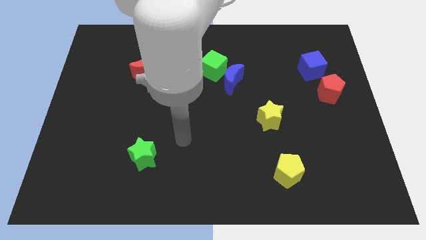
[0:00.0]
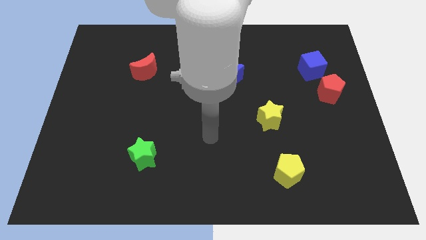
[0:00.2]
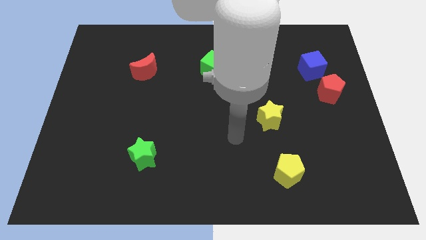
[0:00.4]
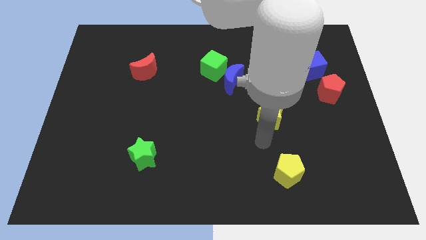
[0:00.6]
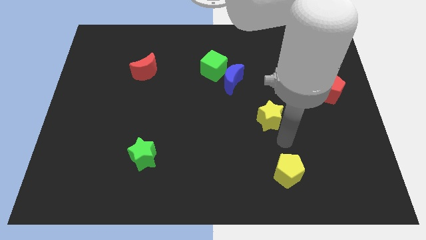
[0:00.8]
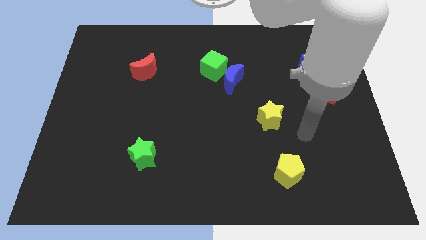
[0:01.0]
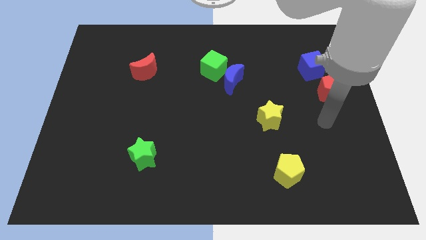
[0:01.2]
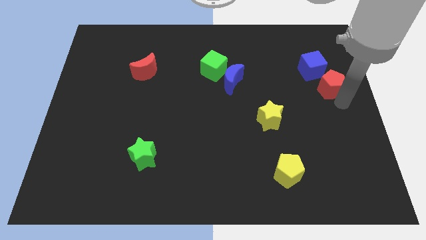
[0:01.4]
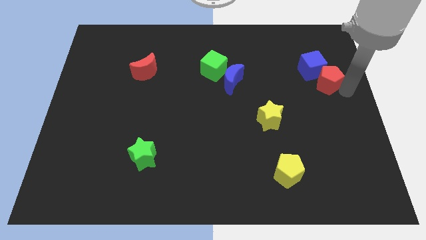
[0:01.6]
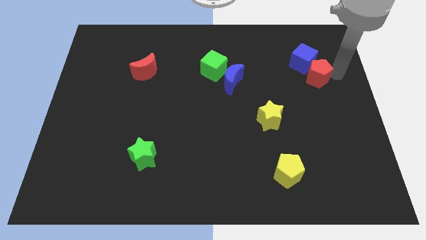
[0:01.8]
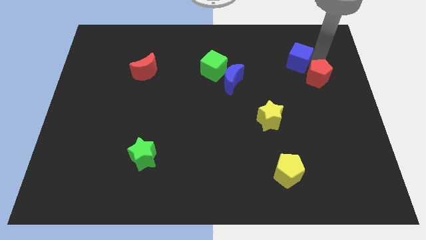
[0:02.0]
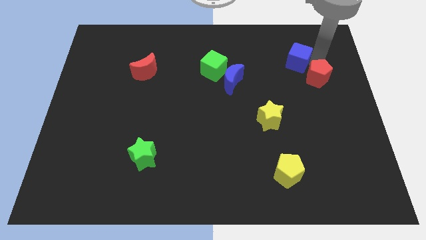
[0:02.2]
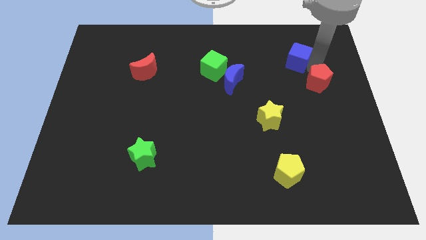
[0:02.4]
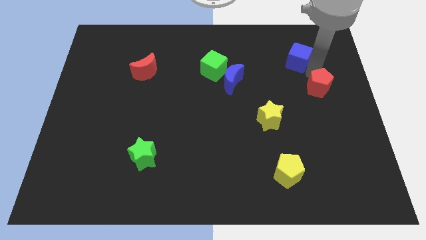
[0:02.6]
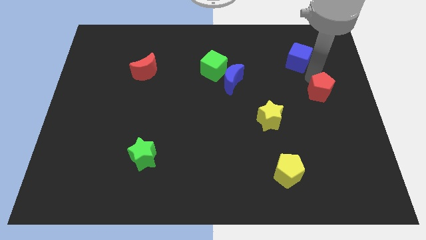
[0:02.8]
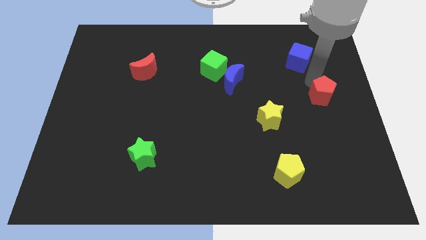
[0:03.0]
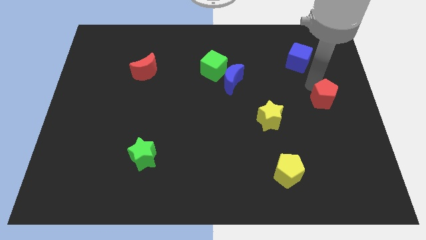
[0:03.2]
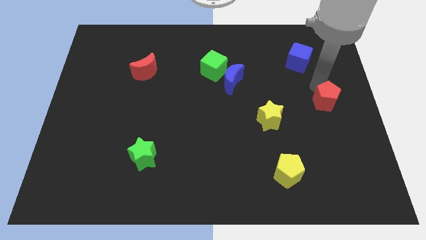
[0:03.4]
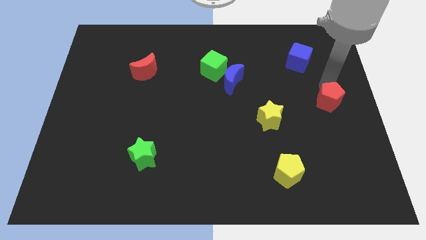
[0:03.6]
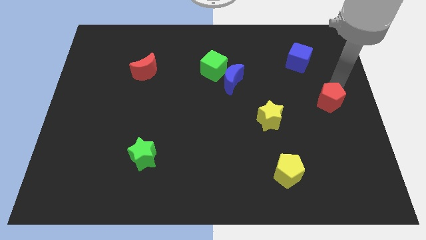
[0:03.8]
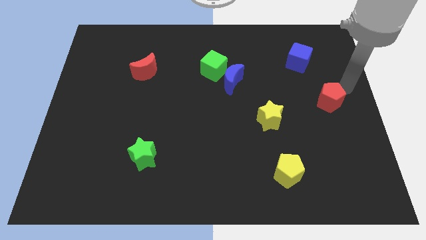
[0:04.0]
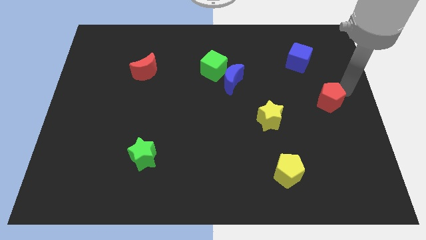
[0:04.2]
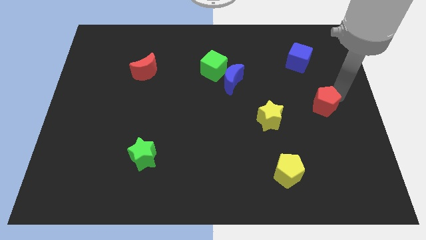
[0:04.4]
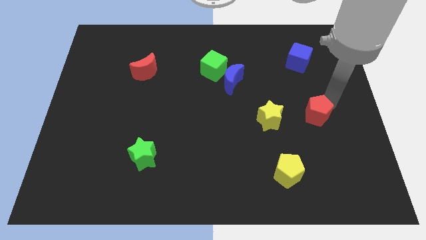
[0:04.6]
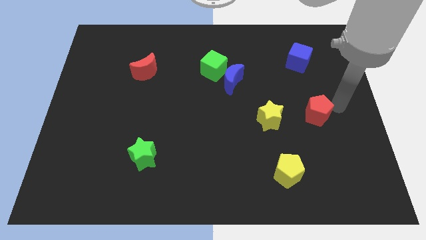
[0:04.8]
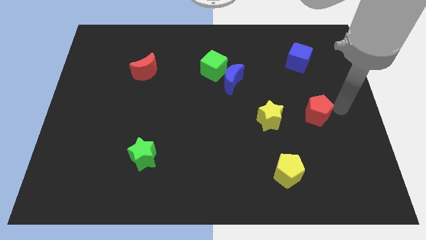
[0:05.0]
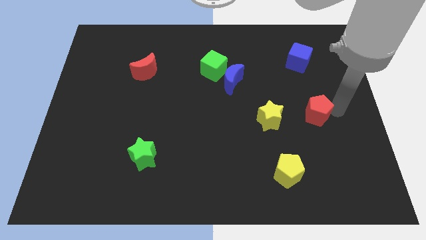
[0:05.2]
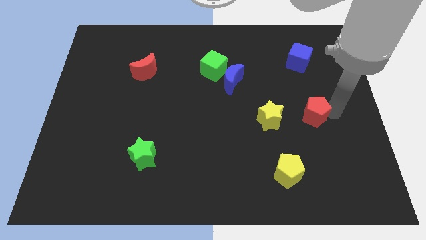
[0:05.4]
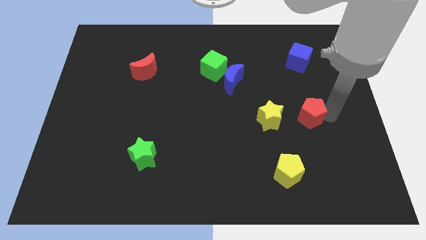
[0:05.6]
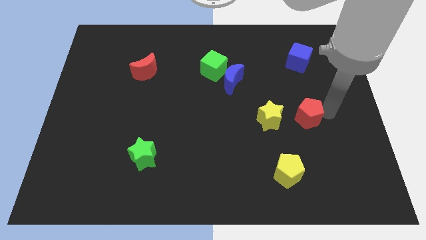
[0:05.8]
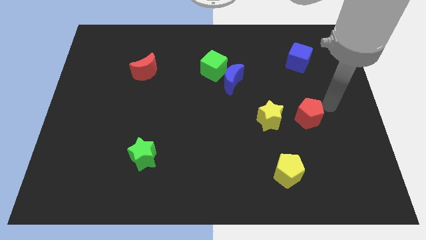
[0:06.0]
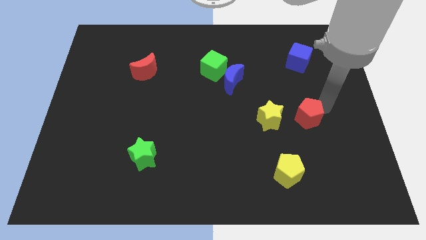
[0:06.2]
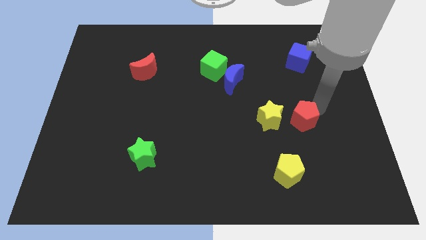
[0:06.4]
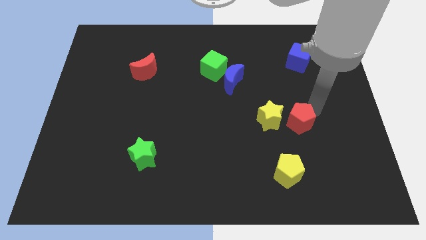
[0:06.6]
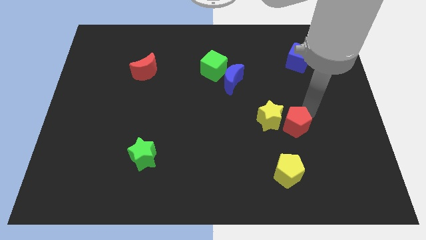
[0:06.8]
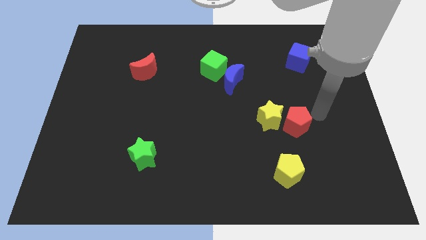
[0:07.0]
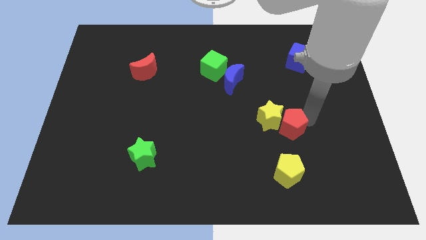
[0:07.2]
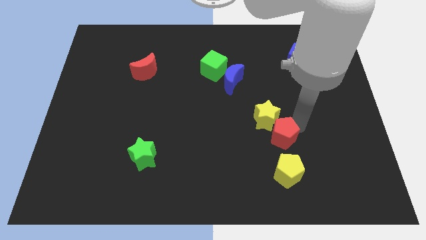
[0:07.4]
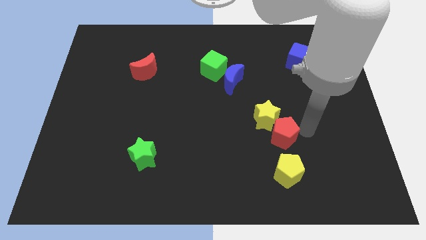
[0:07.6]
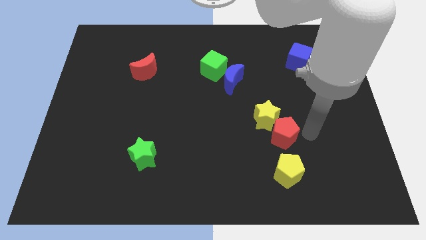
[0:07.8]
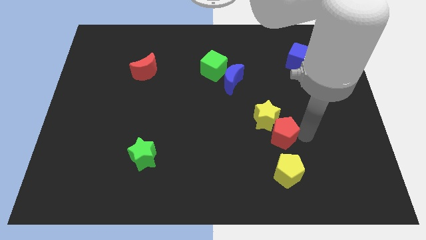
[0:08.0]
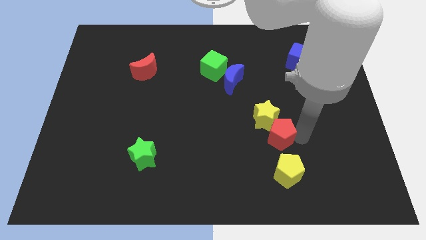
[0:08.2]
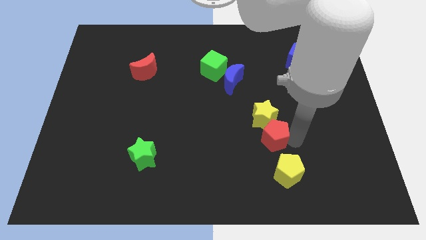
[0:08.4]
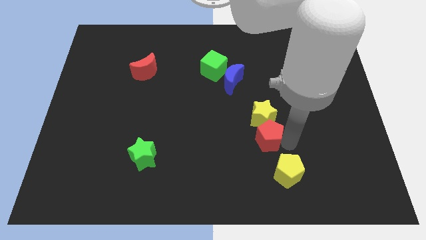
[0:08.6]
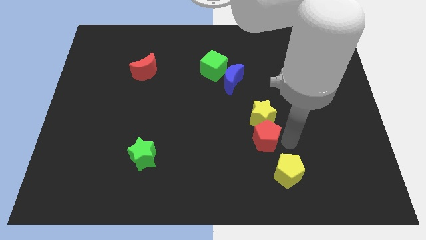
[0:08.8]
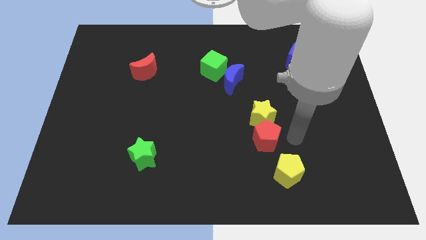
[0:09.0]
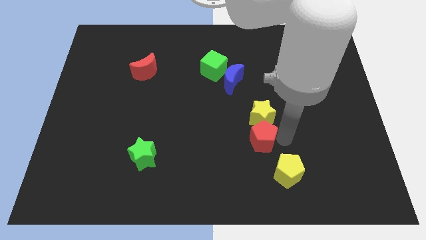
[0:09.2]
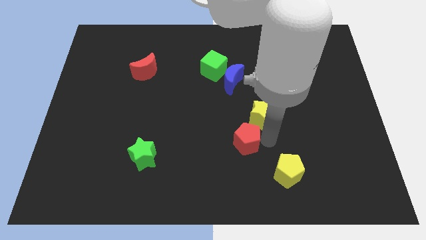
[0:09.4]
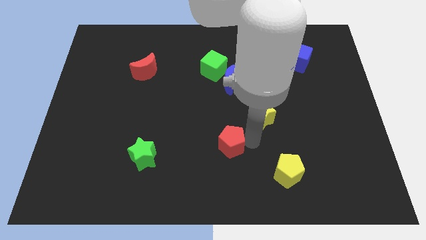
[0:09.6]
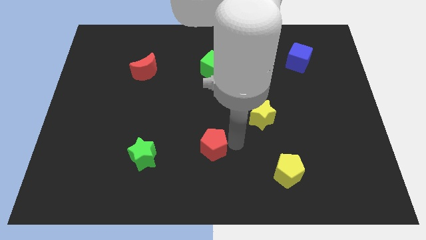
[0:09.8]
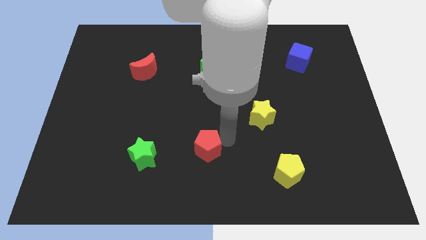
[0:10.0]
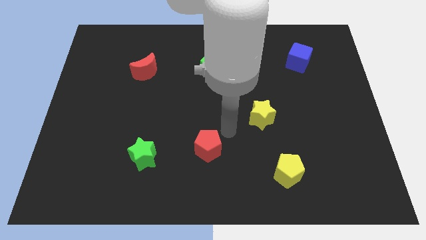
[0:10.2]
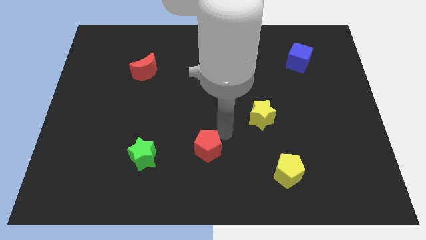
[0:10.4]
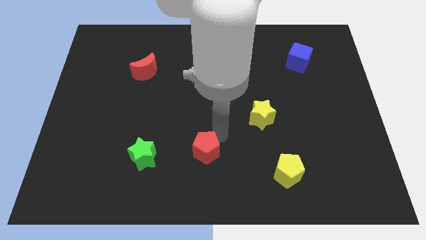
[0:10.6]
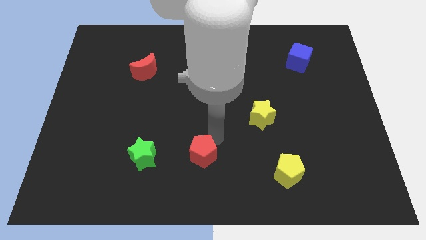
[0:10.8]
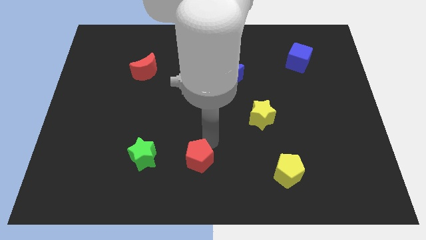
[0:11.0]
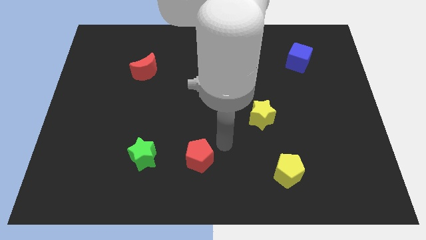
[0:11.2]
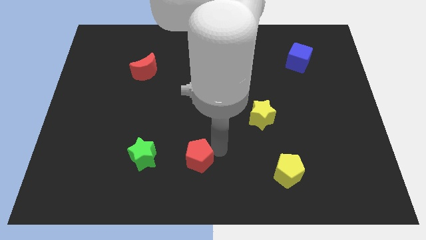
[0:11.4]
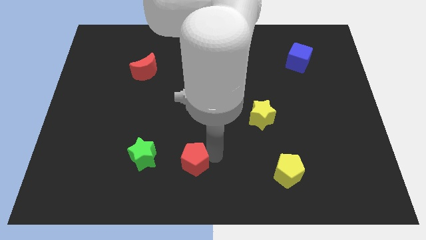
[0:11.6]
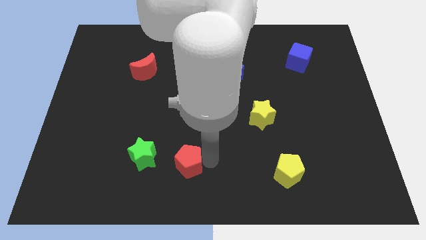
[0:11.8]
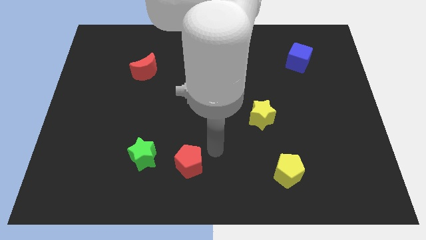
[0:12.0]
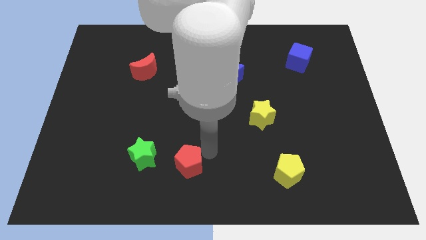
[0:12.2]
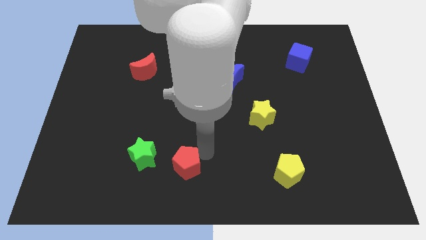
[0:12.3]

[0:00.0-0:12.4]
push the red pentagon to the bottom right of the green star

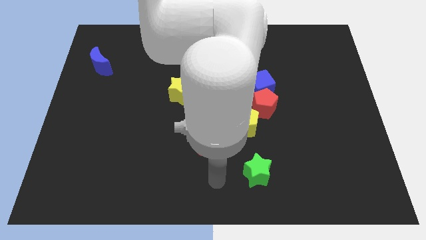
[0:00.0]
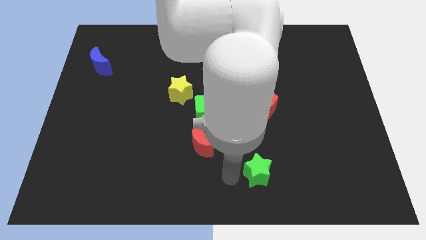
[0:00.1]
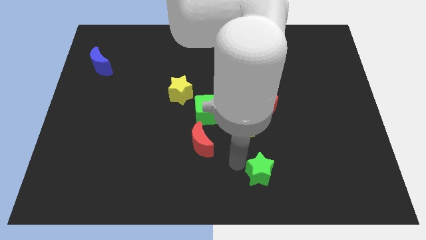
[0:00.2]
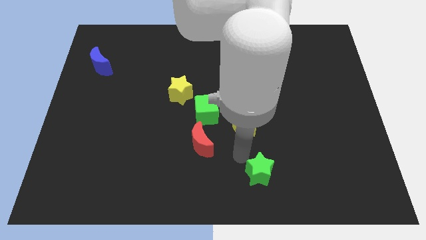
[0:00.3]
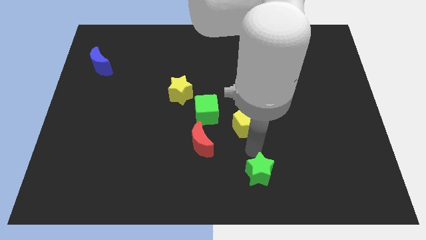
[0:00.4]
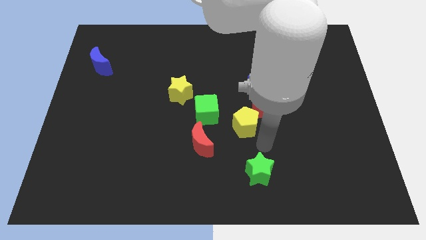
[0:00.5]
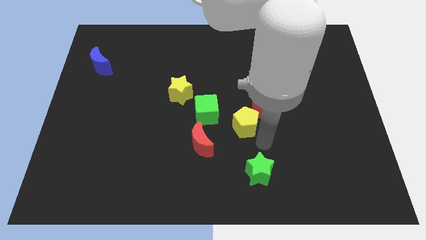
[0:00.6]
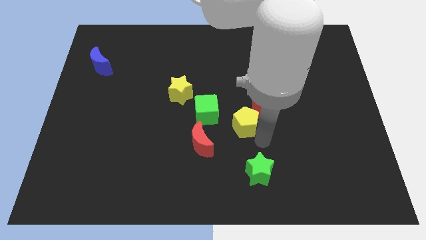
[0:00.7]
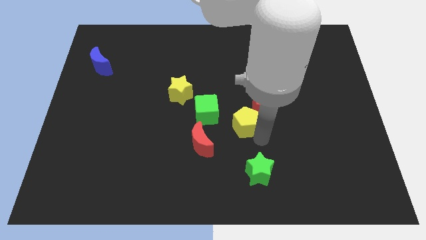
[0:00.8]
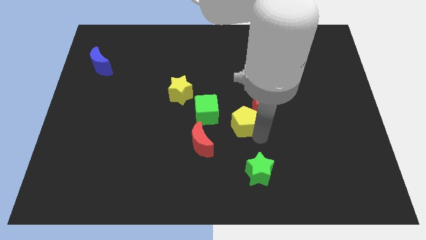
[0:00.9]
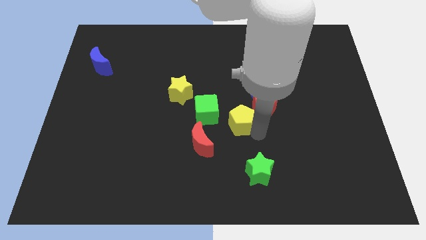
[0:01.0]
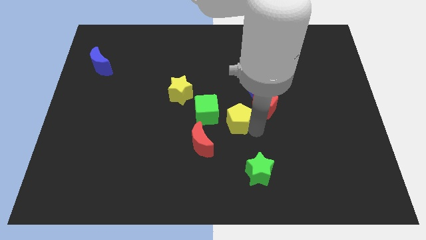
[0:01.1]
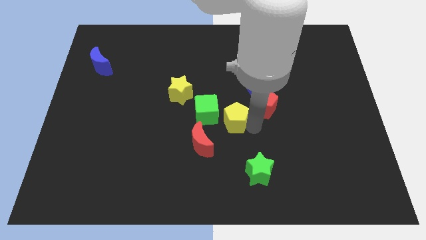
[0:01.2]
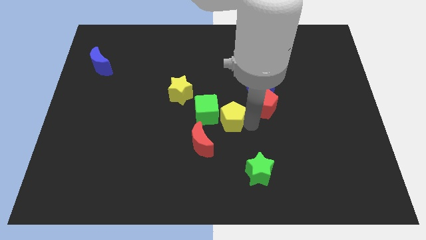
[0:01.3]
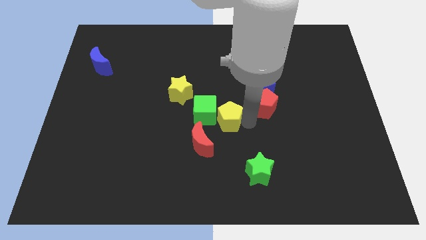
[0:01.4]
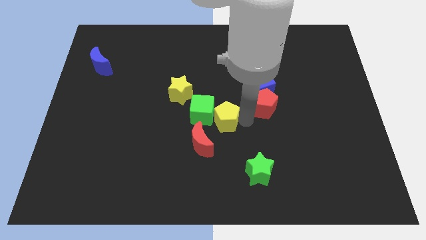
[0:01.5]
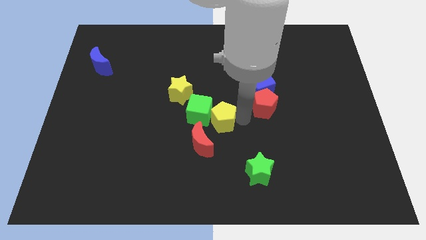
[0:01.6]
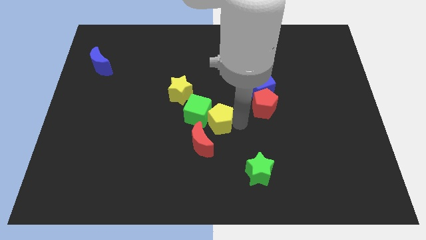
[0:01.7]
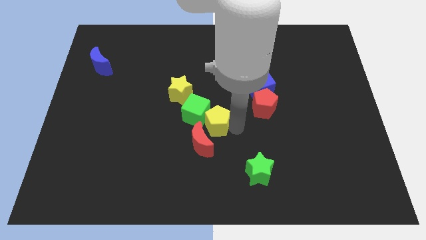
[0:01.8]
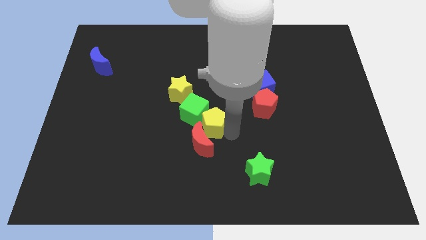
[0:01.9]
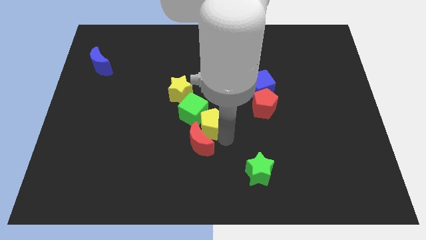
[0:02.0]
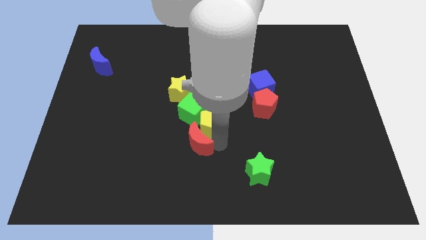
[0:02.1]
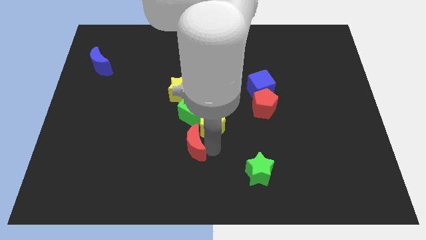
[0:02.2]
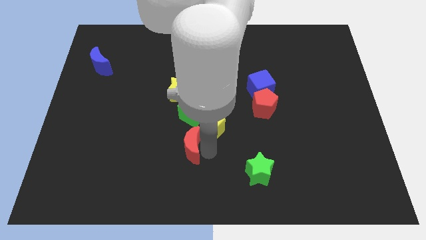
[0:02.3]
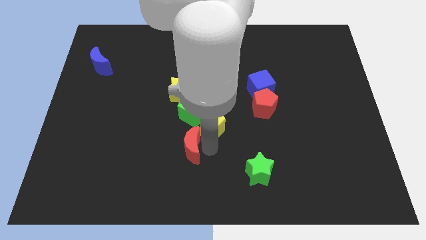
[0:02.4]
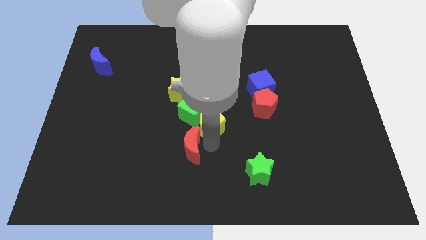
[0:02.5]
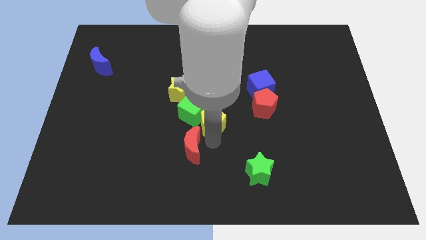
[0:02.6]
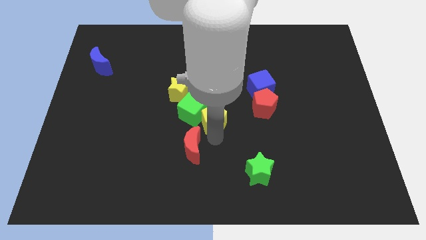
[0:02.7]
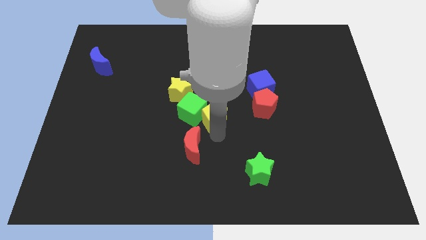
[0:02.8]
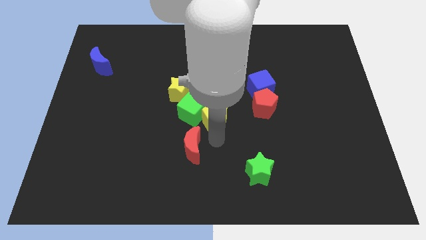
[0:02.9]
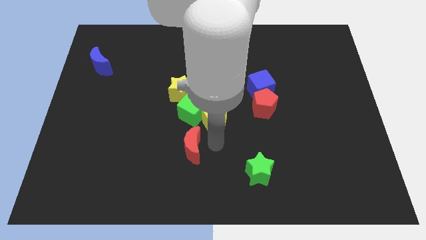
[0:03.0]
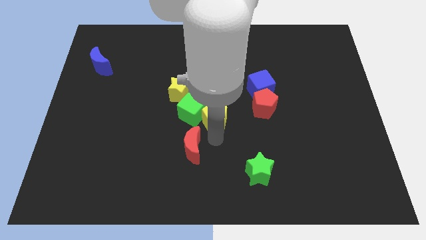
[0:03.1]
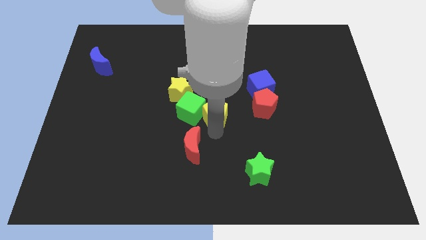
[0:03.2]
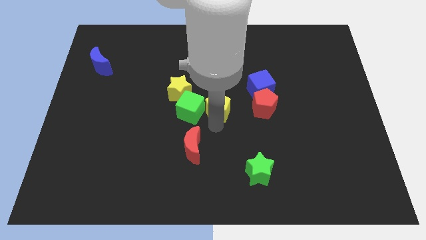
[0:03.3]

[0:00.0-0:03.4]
slide the yellow pentagon to the top right of the green cube
